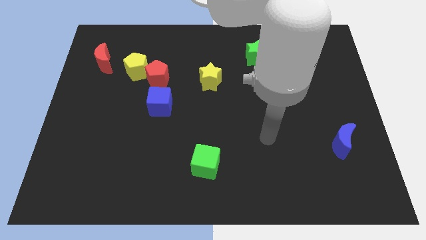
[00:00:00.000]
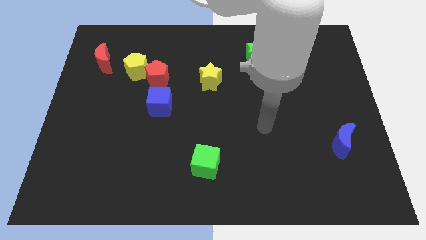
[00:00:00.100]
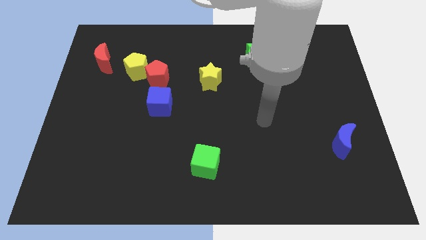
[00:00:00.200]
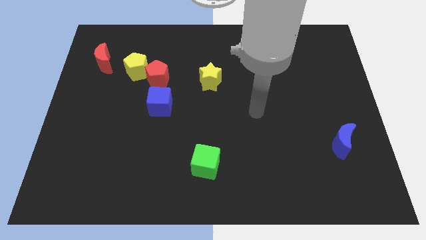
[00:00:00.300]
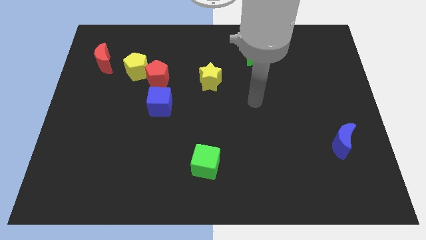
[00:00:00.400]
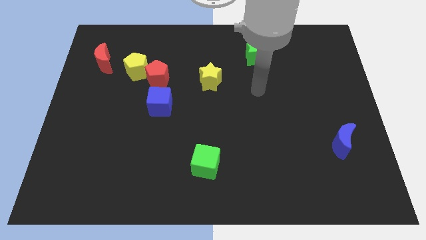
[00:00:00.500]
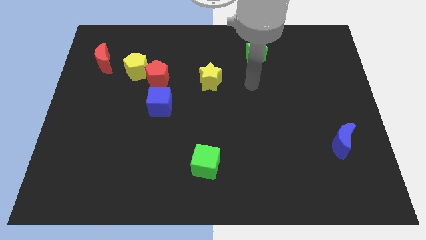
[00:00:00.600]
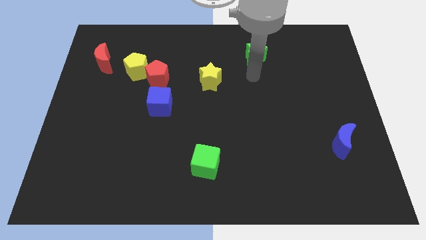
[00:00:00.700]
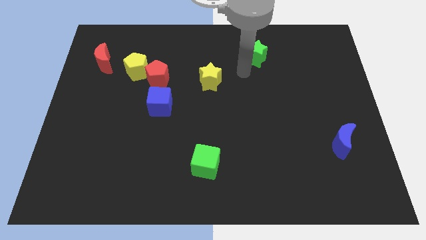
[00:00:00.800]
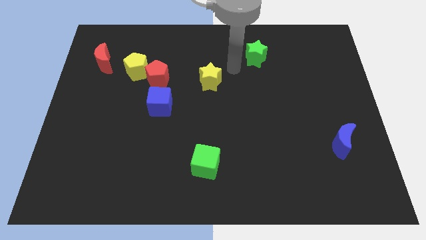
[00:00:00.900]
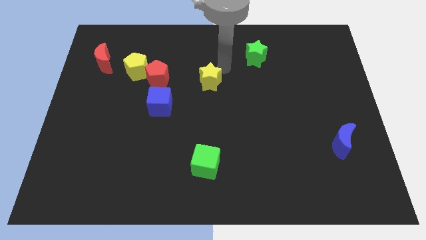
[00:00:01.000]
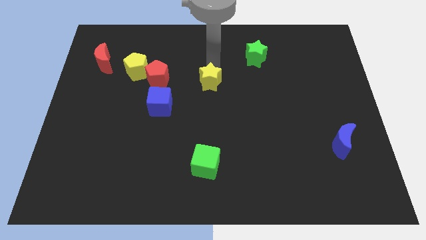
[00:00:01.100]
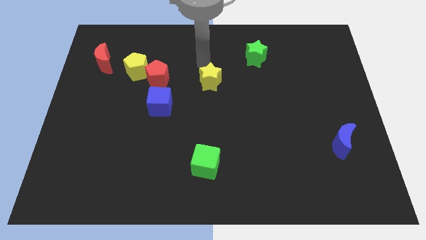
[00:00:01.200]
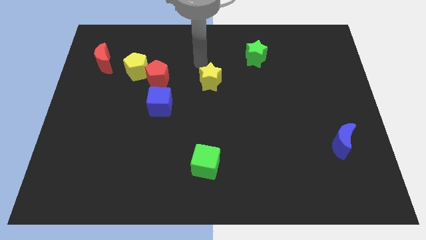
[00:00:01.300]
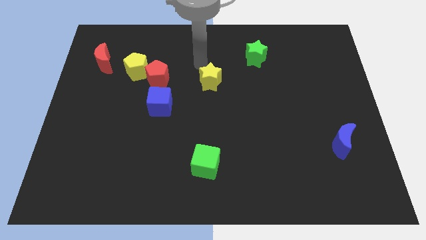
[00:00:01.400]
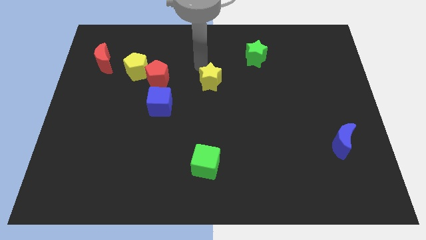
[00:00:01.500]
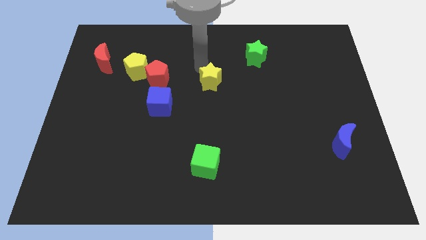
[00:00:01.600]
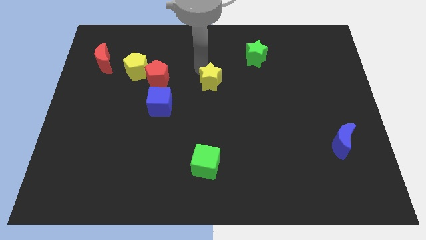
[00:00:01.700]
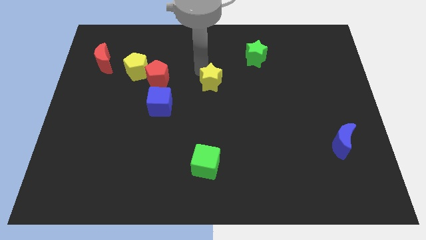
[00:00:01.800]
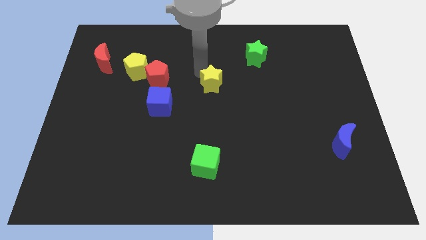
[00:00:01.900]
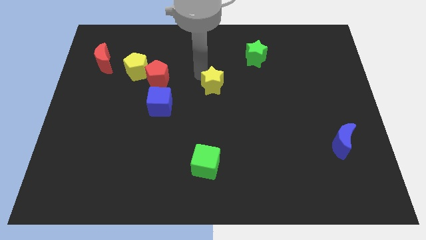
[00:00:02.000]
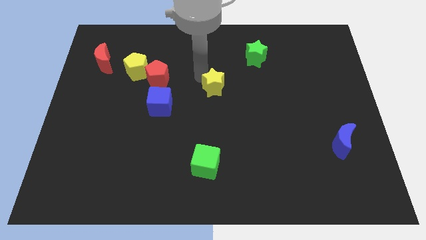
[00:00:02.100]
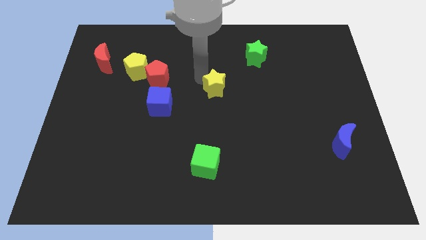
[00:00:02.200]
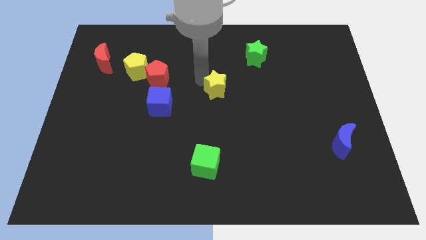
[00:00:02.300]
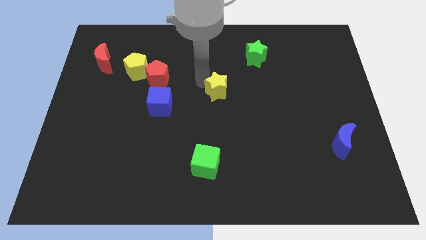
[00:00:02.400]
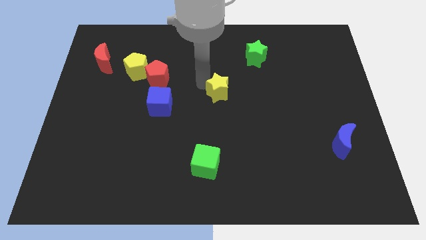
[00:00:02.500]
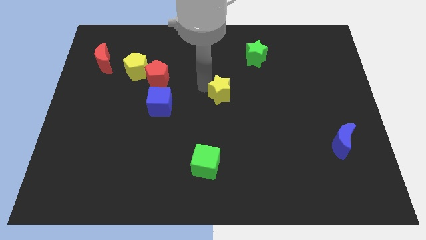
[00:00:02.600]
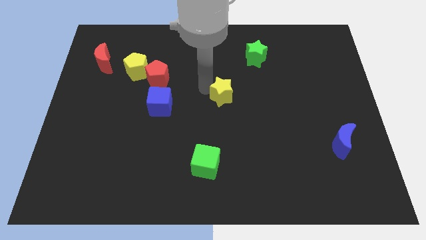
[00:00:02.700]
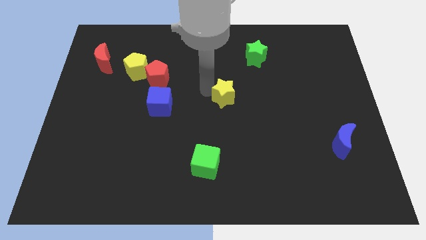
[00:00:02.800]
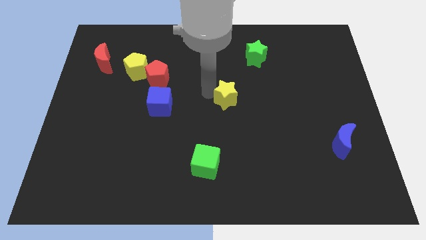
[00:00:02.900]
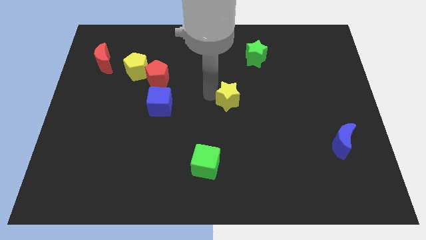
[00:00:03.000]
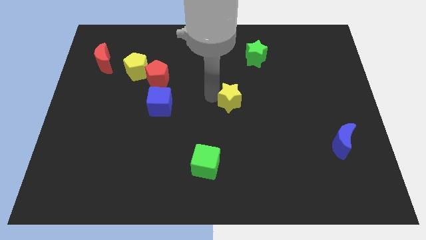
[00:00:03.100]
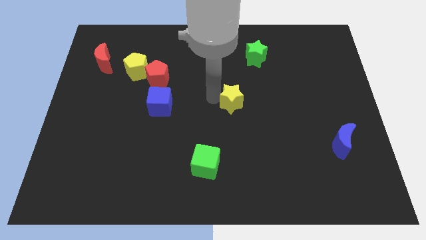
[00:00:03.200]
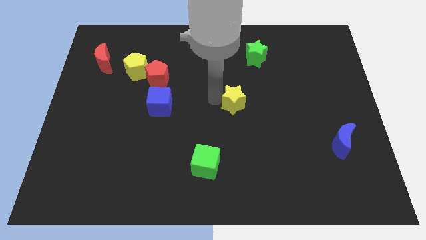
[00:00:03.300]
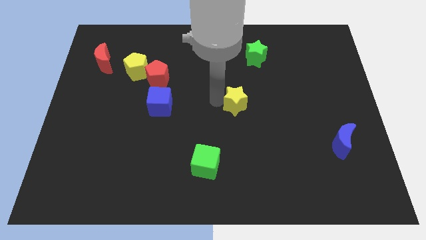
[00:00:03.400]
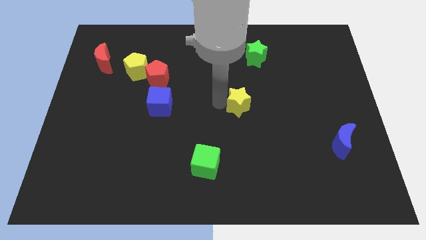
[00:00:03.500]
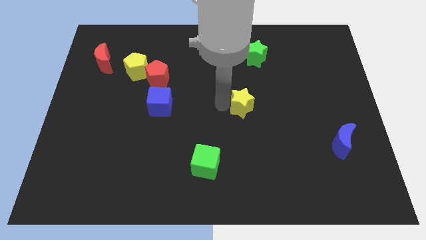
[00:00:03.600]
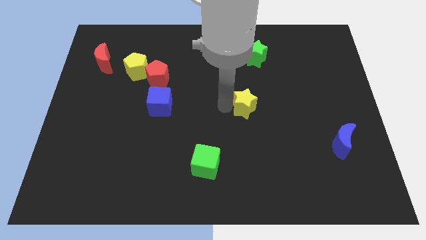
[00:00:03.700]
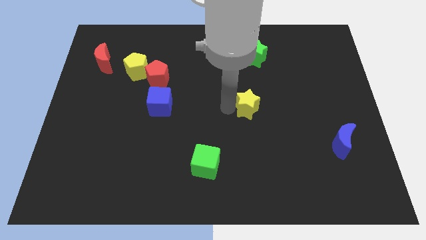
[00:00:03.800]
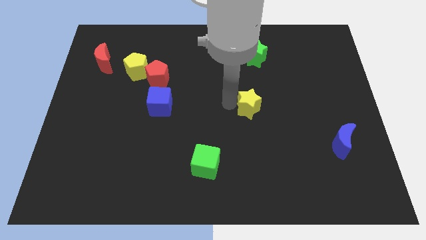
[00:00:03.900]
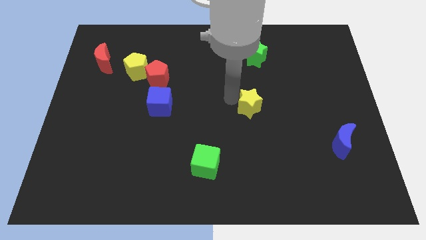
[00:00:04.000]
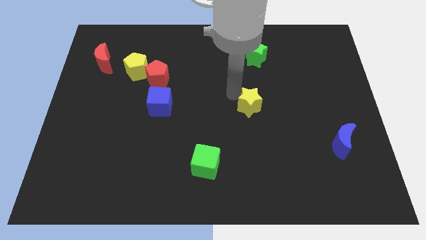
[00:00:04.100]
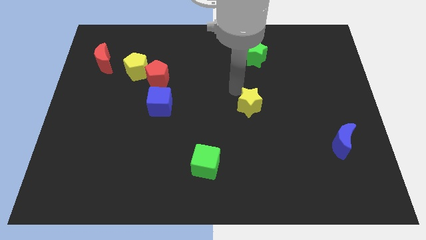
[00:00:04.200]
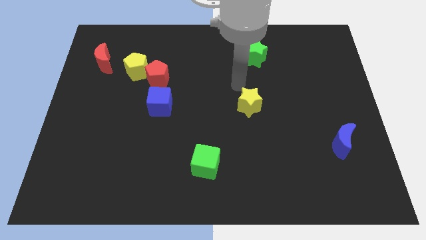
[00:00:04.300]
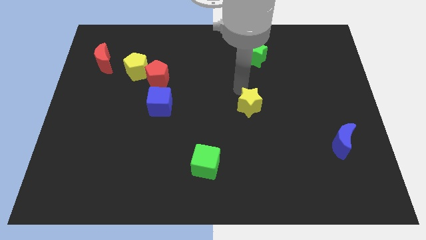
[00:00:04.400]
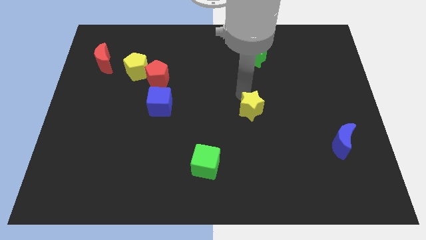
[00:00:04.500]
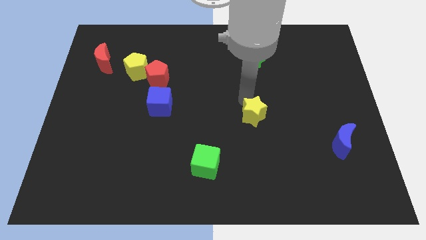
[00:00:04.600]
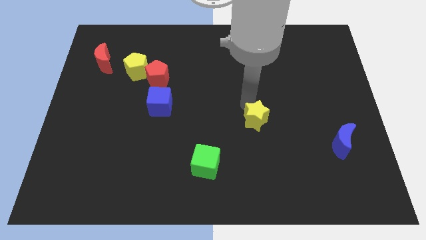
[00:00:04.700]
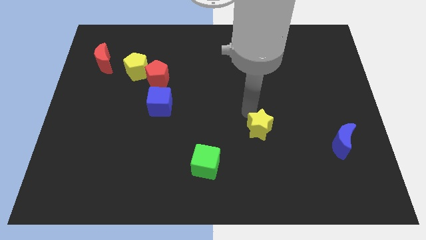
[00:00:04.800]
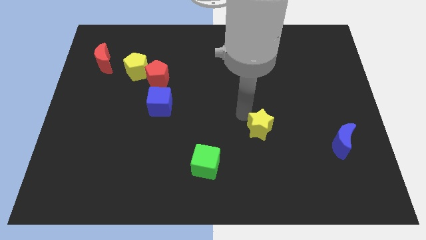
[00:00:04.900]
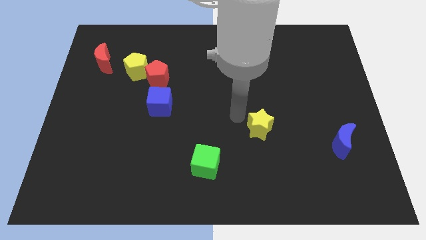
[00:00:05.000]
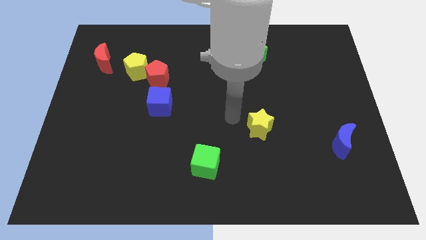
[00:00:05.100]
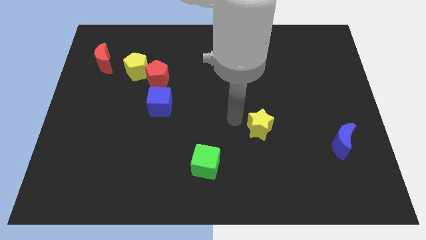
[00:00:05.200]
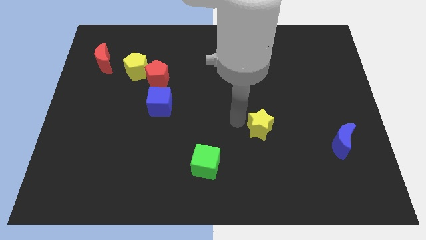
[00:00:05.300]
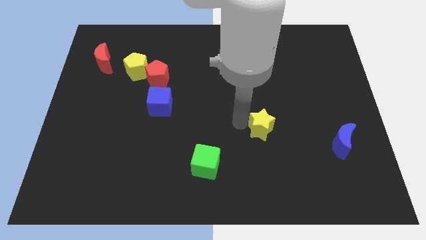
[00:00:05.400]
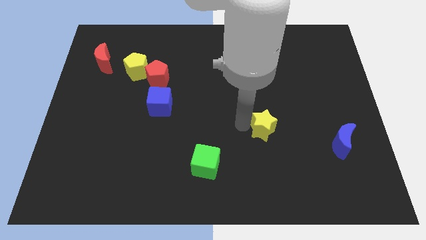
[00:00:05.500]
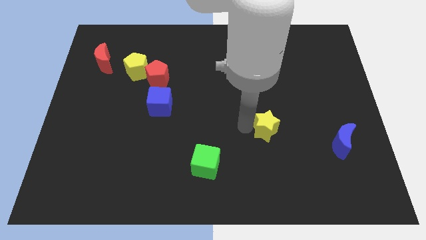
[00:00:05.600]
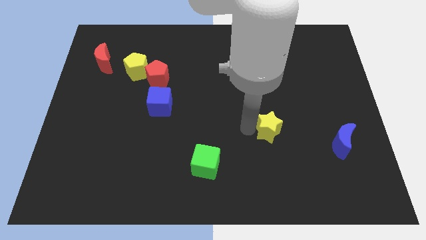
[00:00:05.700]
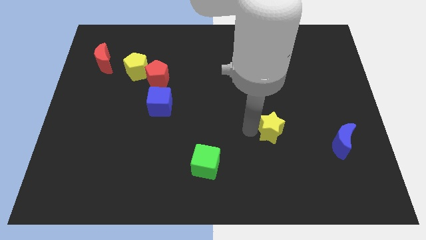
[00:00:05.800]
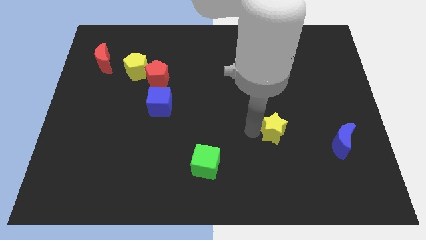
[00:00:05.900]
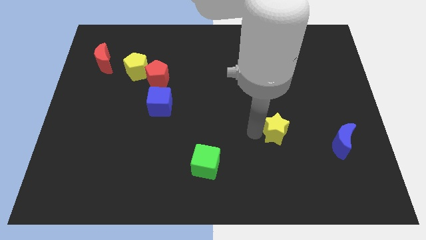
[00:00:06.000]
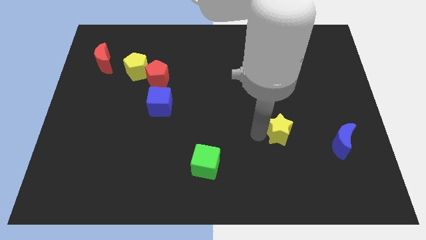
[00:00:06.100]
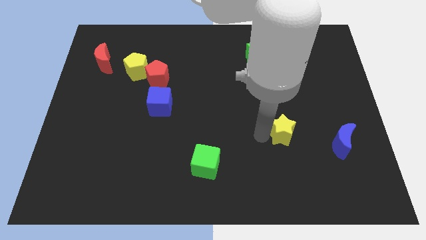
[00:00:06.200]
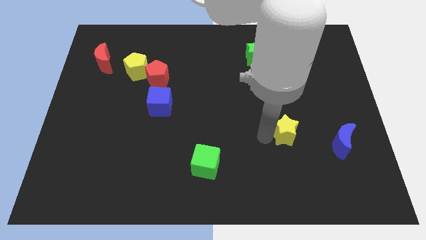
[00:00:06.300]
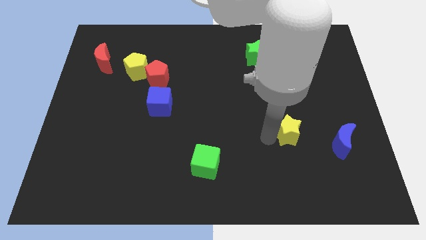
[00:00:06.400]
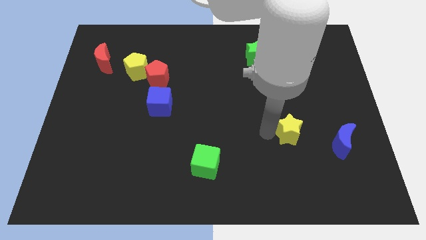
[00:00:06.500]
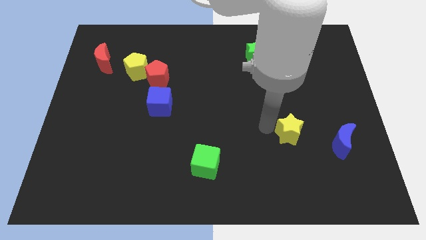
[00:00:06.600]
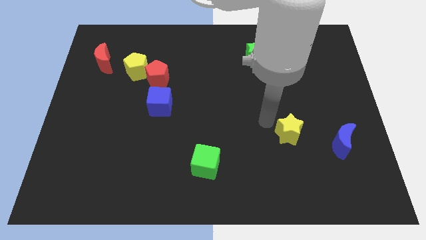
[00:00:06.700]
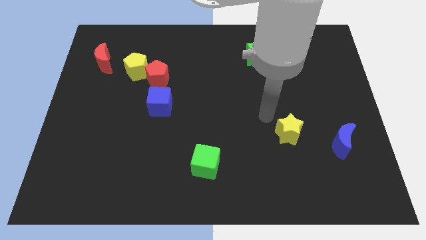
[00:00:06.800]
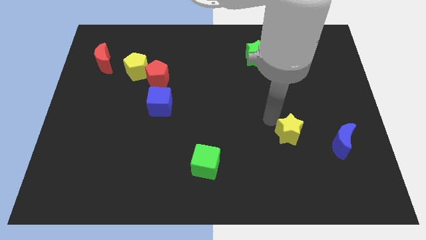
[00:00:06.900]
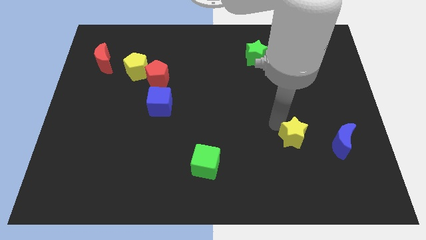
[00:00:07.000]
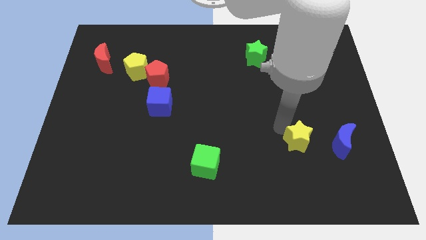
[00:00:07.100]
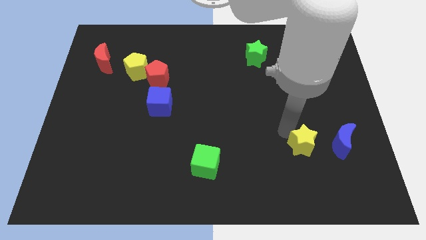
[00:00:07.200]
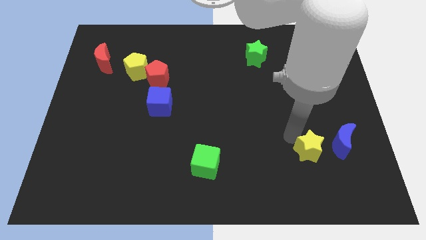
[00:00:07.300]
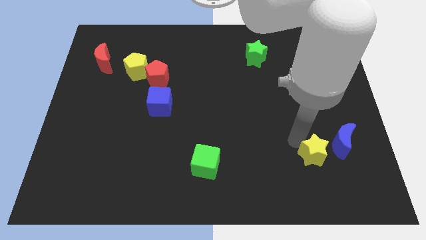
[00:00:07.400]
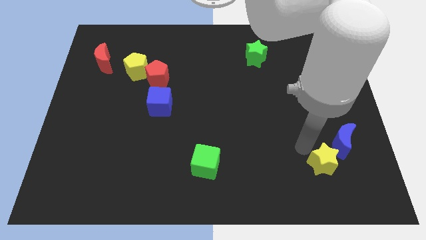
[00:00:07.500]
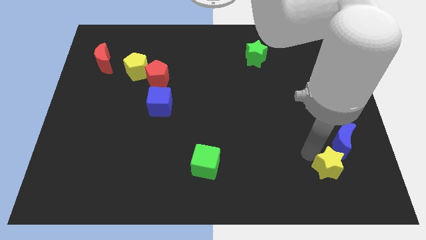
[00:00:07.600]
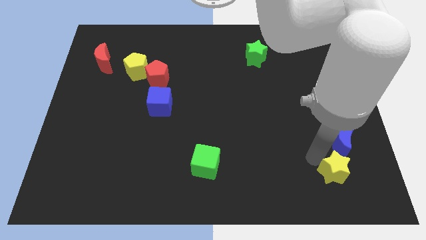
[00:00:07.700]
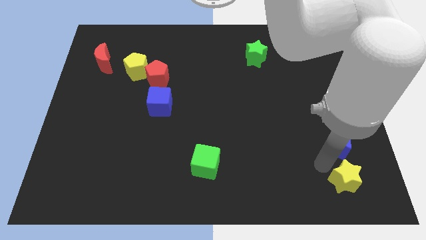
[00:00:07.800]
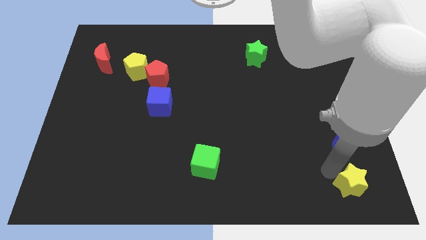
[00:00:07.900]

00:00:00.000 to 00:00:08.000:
put the yellow star to the bottom right corner

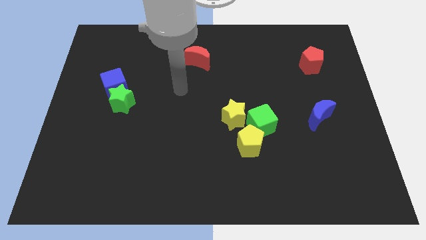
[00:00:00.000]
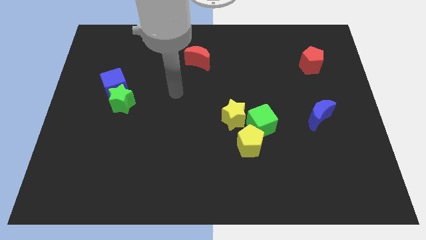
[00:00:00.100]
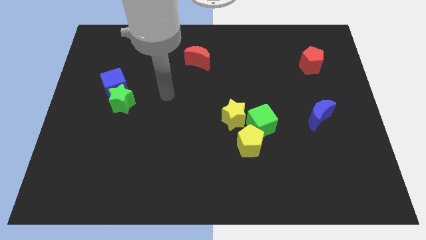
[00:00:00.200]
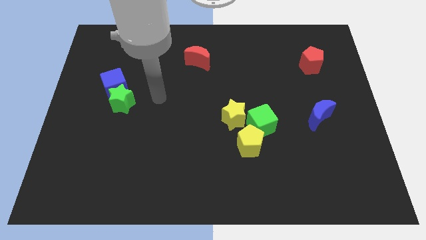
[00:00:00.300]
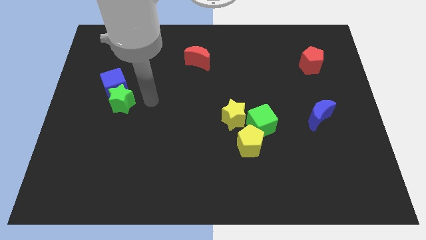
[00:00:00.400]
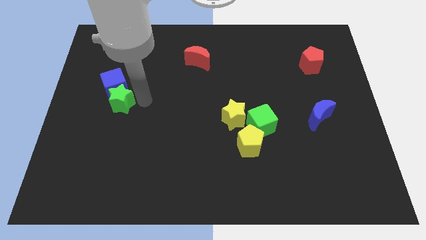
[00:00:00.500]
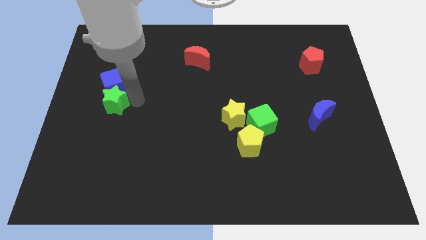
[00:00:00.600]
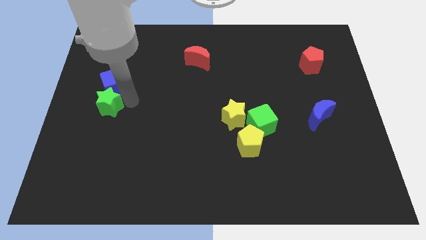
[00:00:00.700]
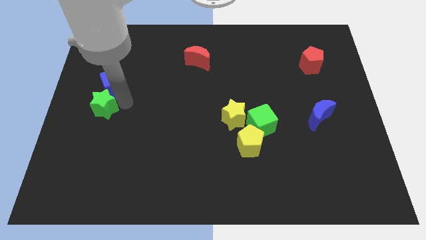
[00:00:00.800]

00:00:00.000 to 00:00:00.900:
move the green star to the left side
